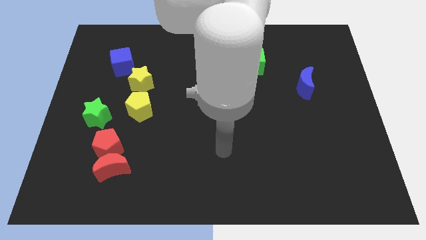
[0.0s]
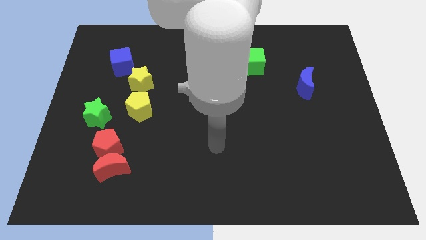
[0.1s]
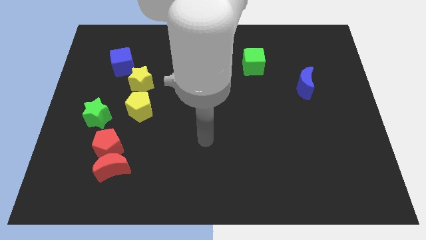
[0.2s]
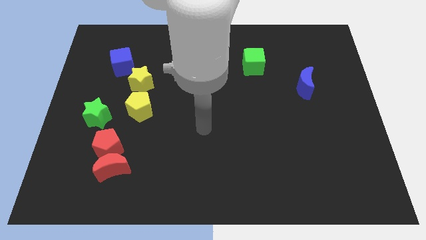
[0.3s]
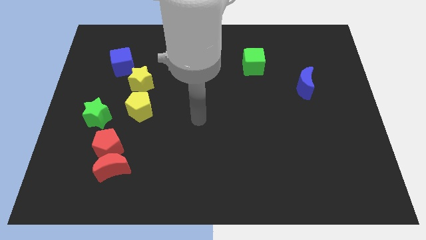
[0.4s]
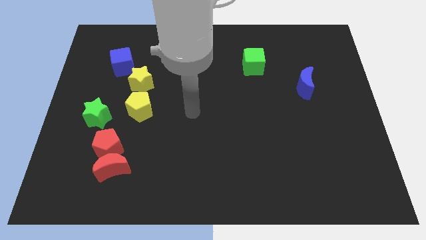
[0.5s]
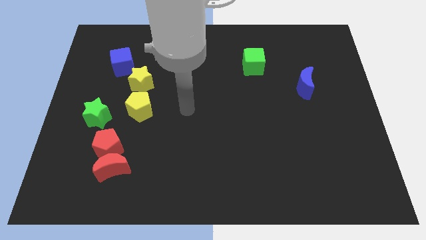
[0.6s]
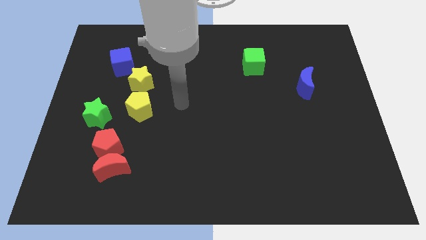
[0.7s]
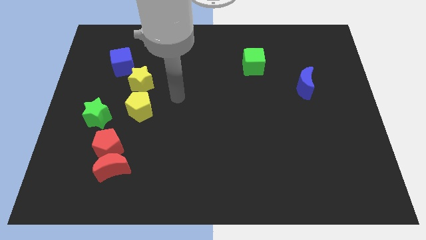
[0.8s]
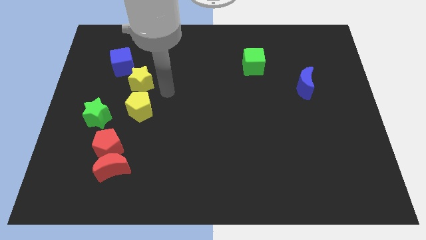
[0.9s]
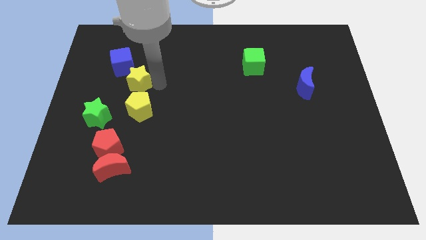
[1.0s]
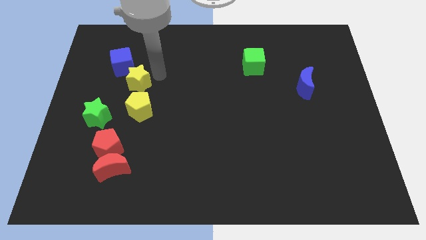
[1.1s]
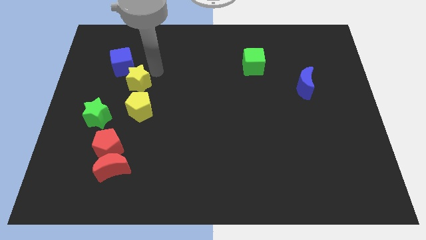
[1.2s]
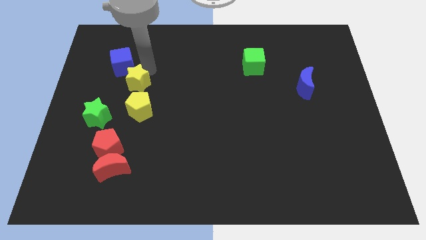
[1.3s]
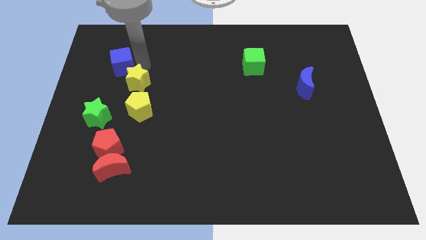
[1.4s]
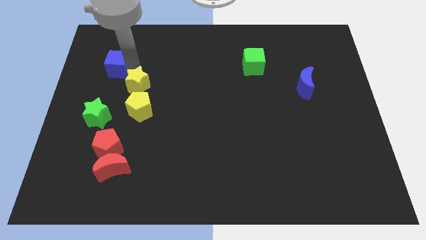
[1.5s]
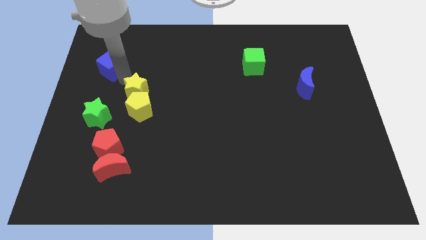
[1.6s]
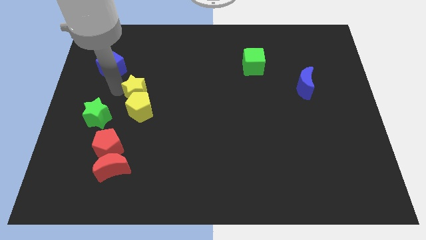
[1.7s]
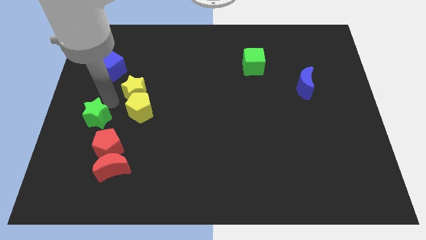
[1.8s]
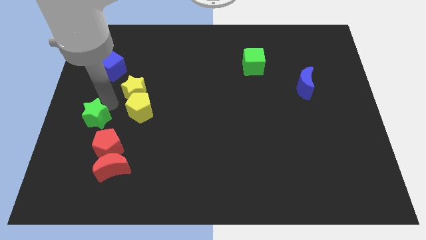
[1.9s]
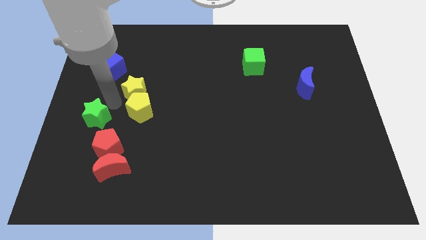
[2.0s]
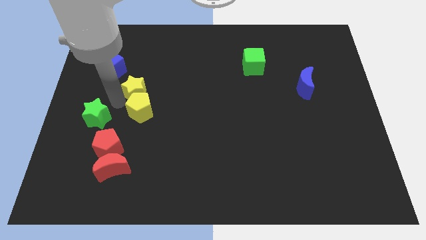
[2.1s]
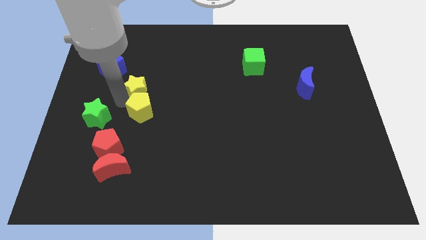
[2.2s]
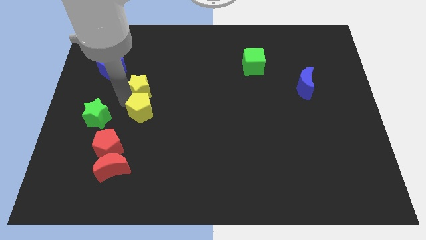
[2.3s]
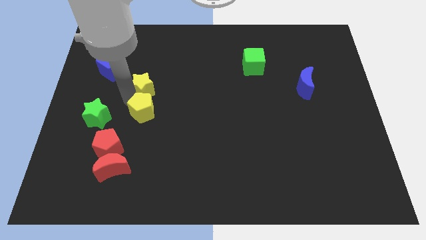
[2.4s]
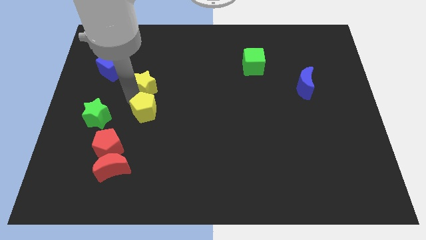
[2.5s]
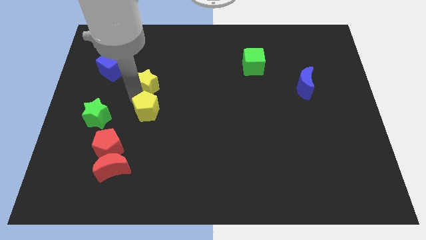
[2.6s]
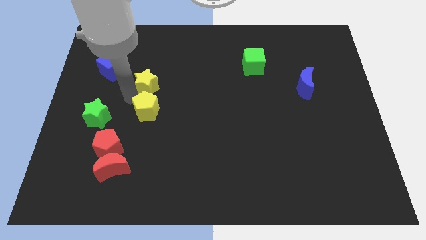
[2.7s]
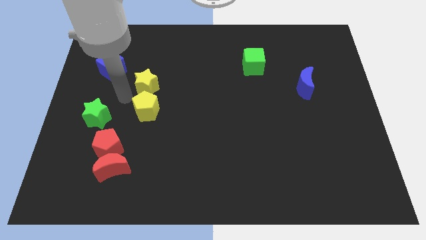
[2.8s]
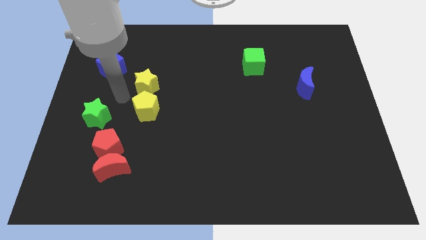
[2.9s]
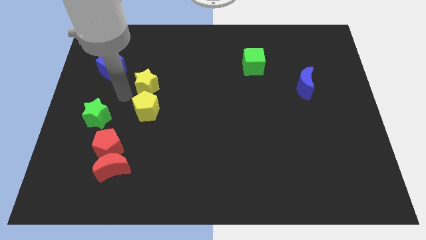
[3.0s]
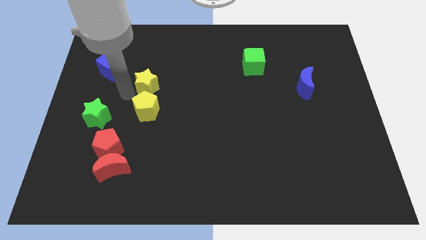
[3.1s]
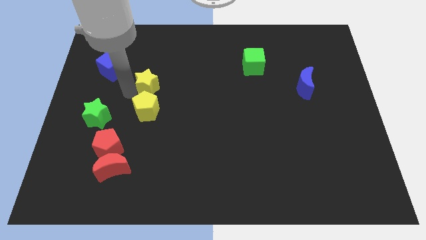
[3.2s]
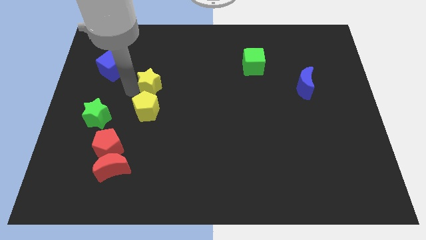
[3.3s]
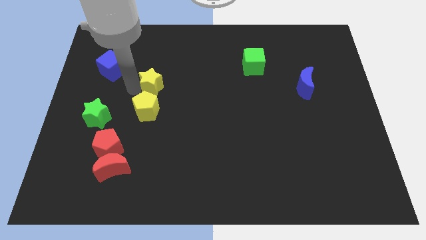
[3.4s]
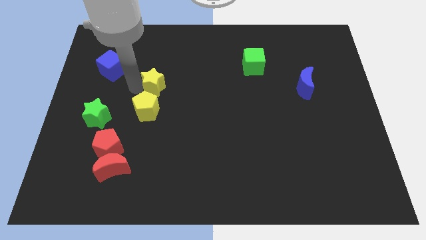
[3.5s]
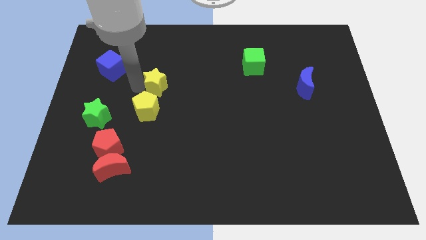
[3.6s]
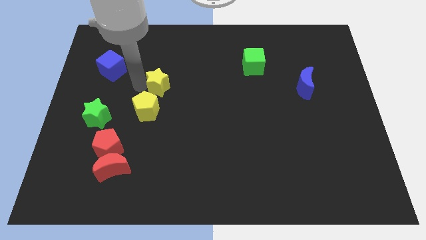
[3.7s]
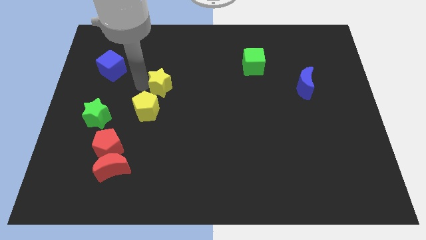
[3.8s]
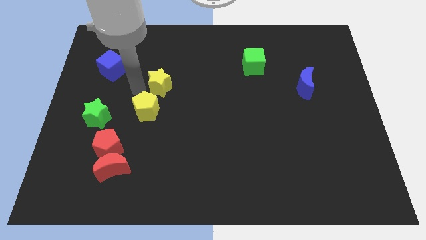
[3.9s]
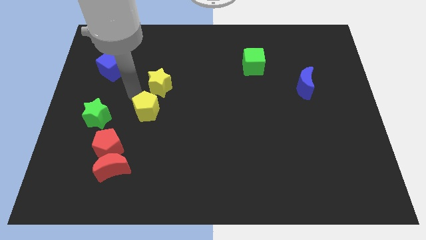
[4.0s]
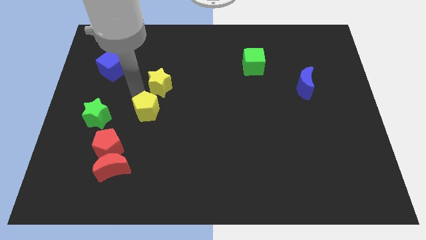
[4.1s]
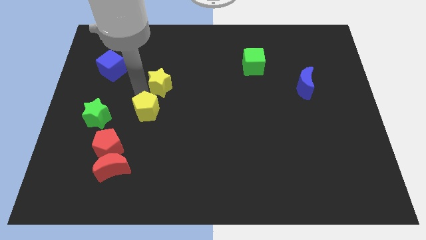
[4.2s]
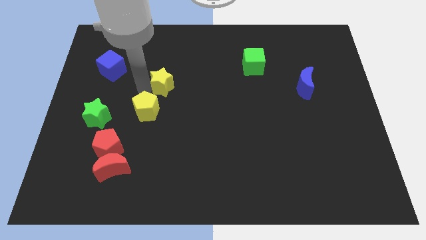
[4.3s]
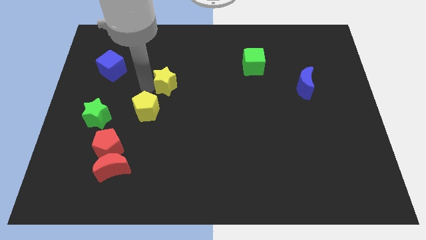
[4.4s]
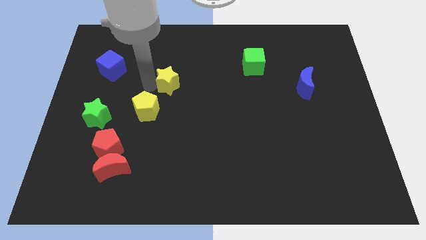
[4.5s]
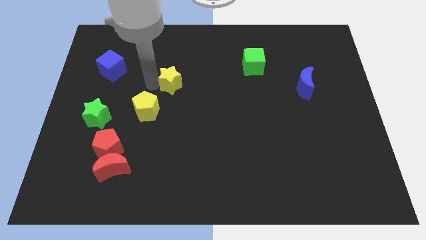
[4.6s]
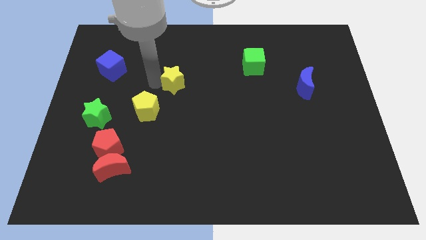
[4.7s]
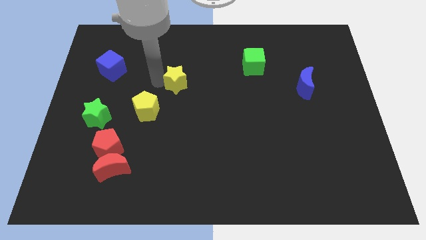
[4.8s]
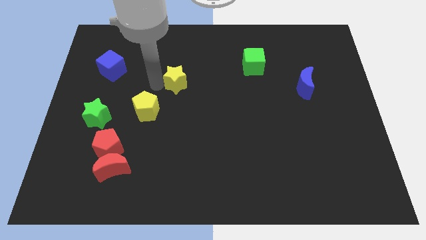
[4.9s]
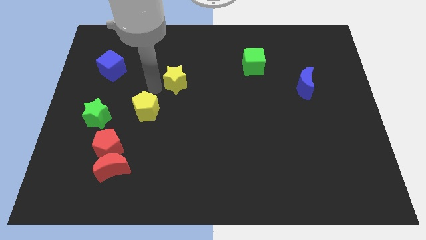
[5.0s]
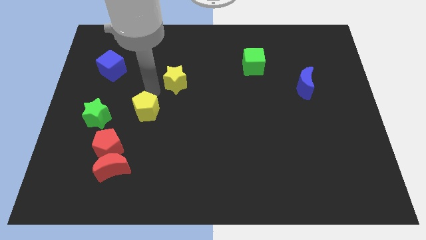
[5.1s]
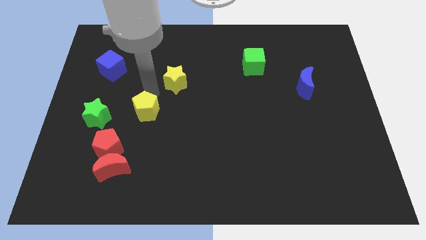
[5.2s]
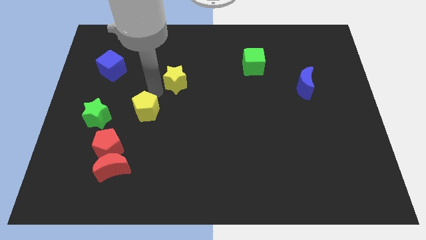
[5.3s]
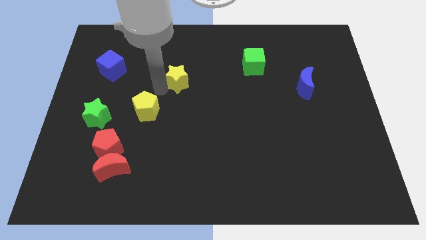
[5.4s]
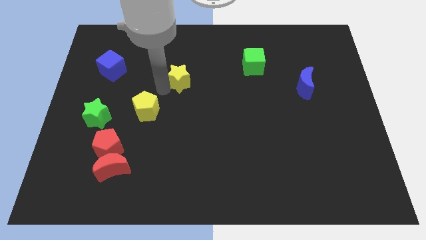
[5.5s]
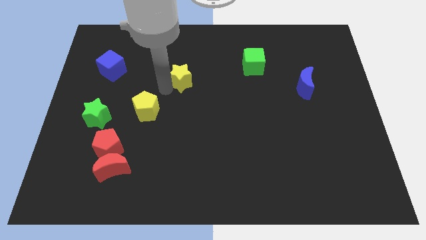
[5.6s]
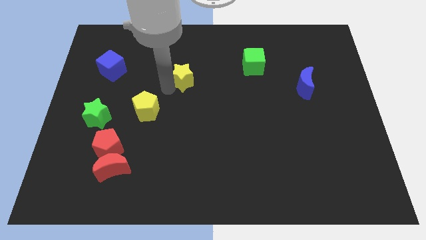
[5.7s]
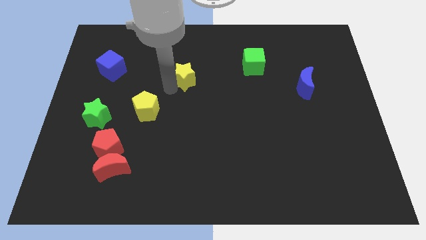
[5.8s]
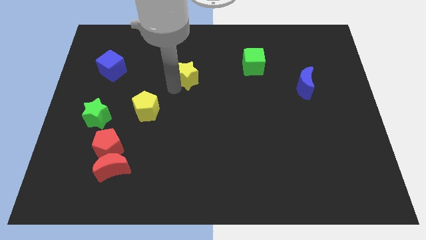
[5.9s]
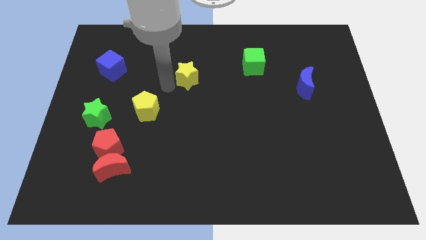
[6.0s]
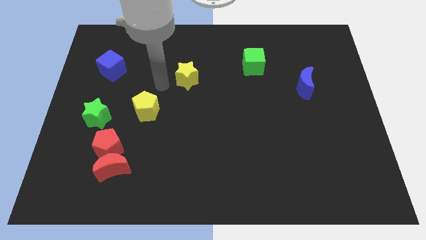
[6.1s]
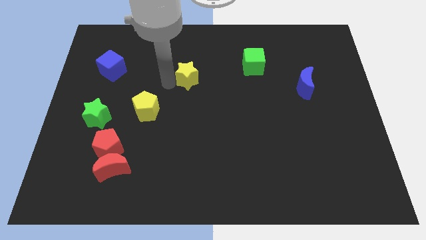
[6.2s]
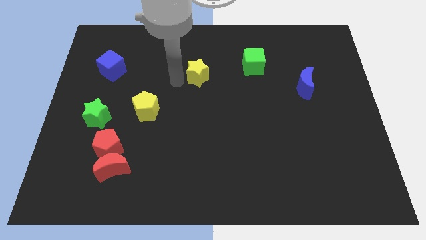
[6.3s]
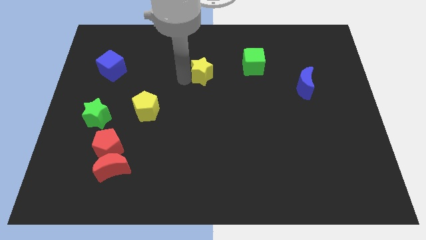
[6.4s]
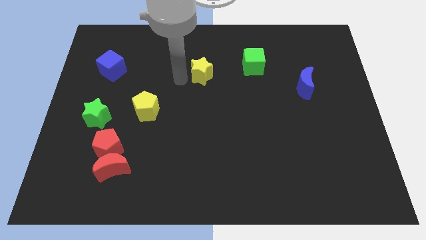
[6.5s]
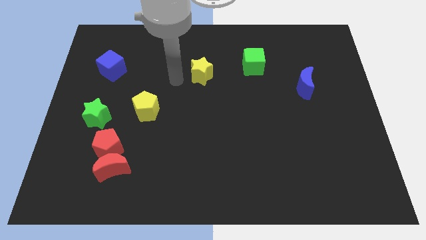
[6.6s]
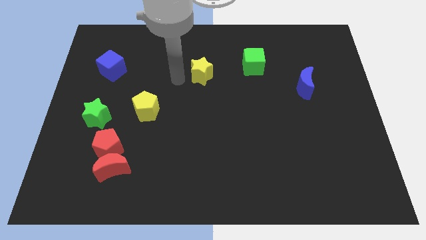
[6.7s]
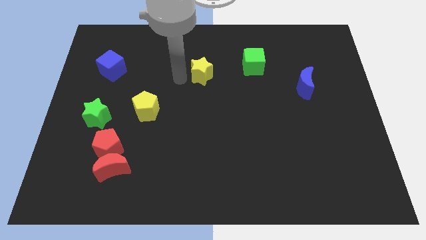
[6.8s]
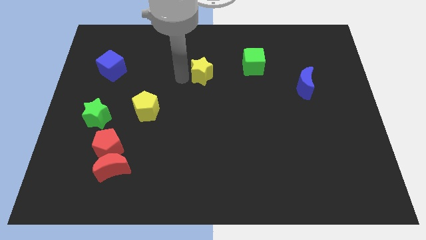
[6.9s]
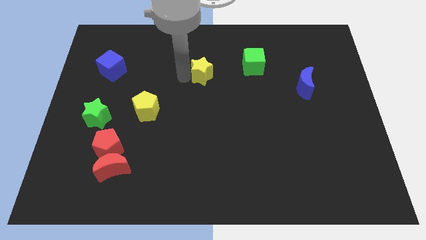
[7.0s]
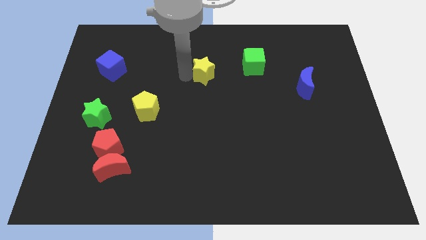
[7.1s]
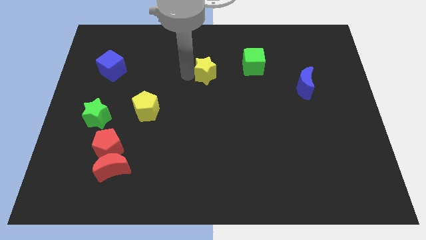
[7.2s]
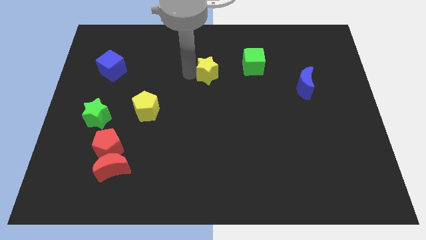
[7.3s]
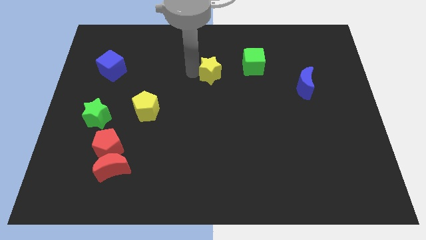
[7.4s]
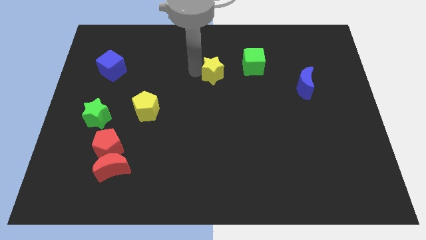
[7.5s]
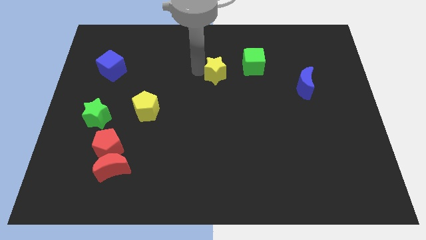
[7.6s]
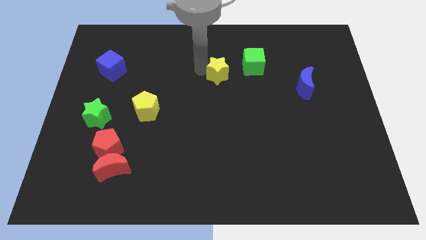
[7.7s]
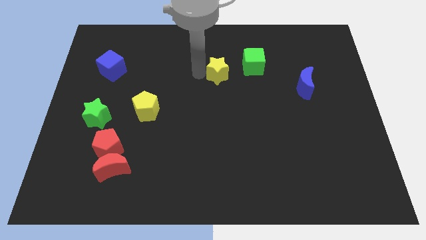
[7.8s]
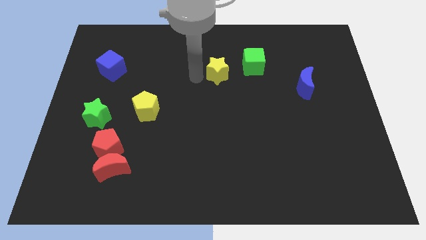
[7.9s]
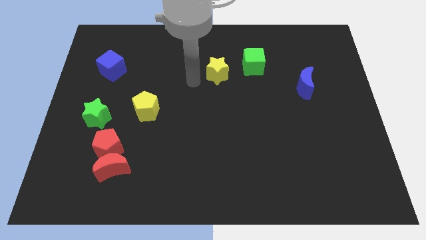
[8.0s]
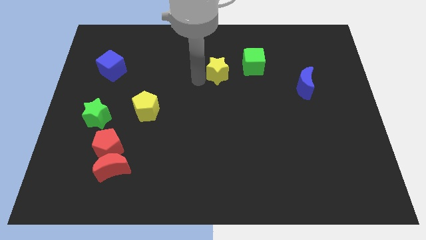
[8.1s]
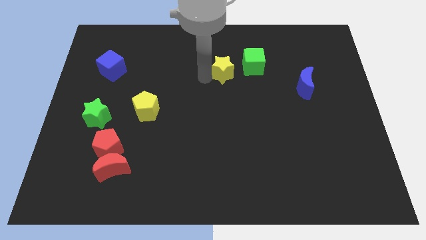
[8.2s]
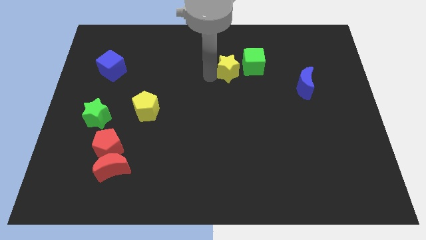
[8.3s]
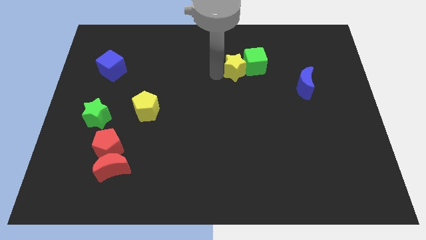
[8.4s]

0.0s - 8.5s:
put the yellow star to the green cube
